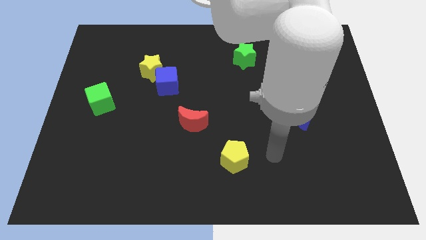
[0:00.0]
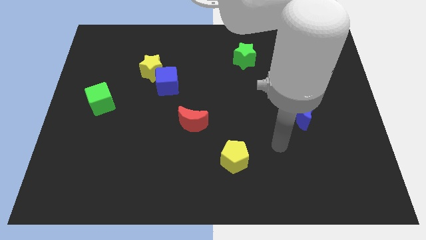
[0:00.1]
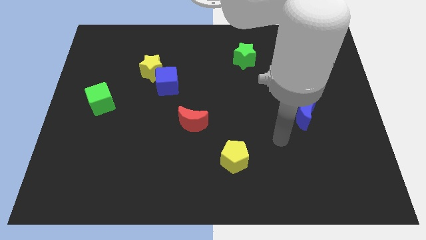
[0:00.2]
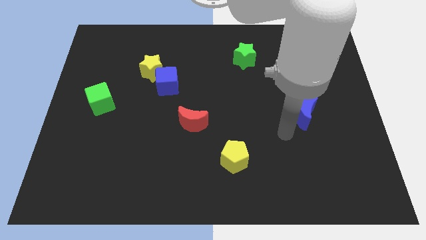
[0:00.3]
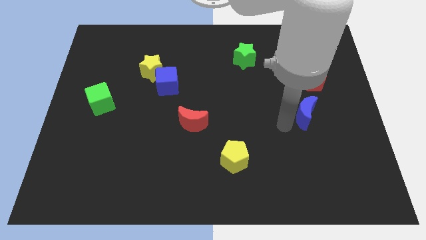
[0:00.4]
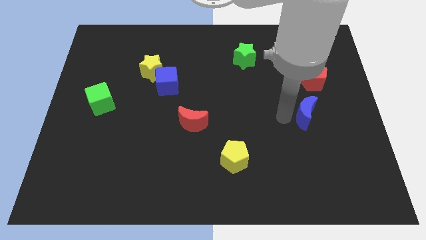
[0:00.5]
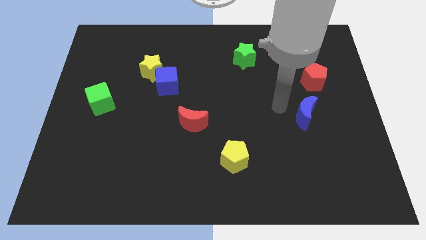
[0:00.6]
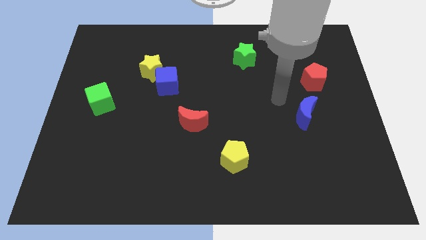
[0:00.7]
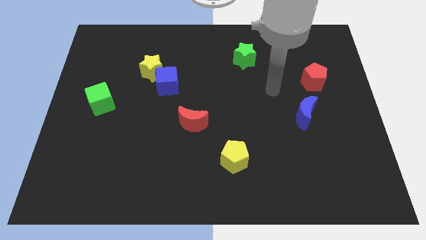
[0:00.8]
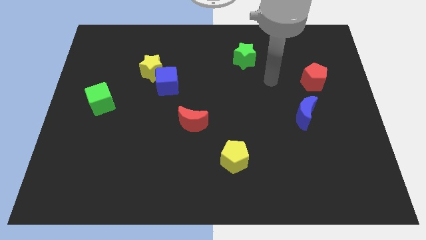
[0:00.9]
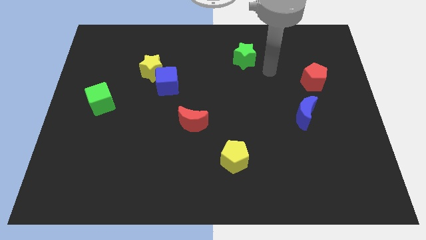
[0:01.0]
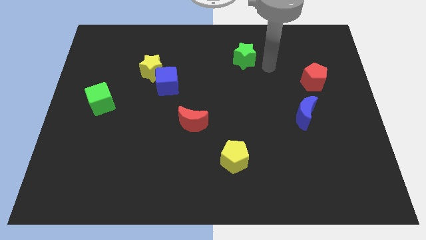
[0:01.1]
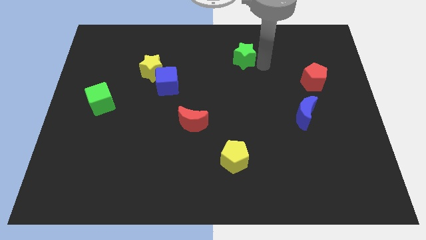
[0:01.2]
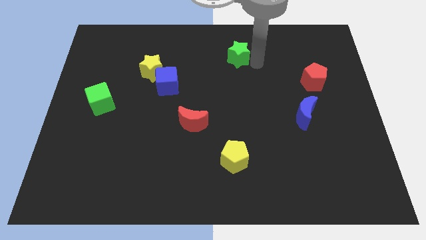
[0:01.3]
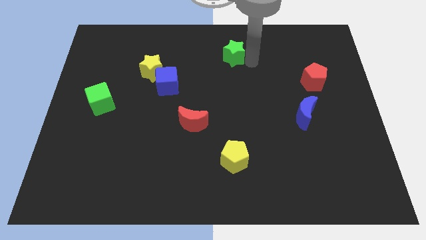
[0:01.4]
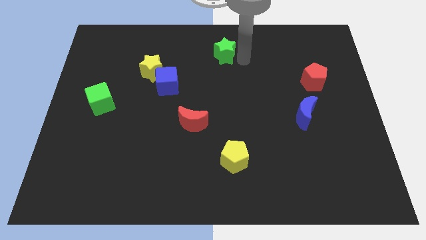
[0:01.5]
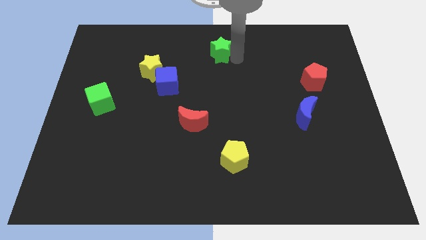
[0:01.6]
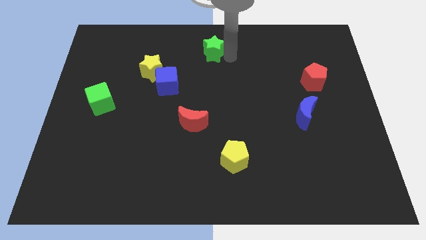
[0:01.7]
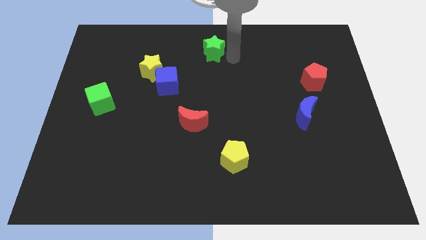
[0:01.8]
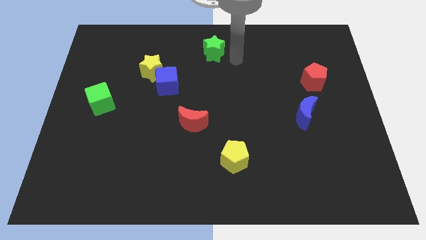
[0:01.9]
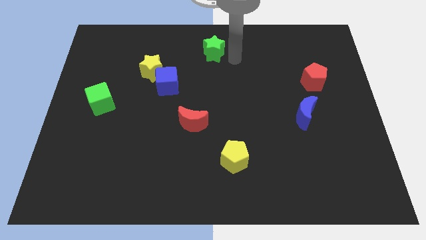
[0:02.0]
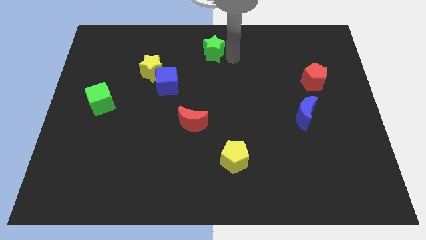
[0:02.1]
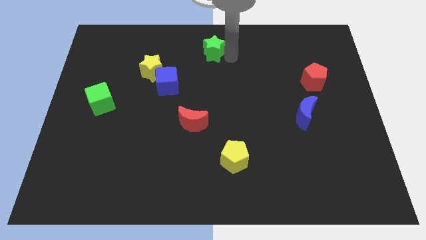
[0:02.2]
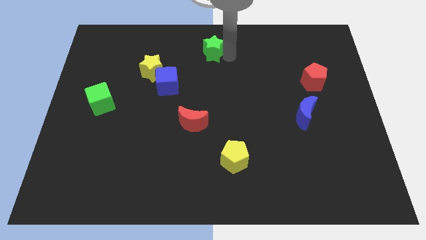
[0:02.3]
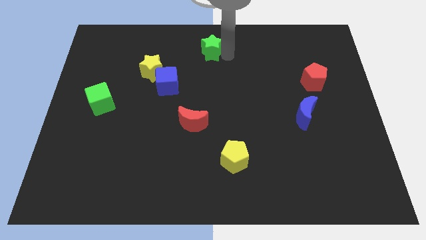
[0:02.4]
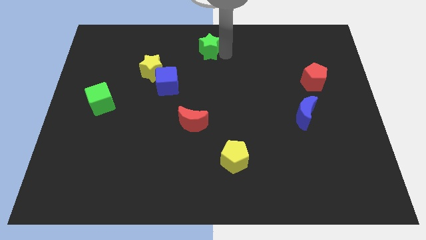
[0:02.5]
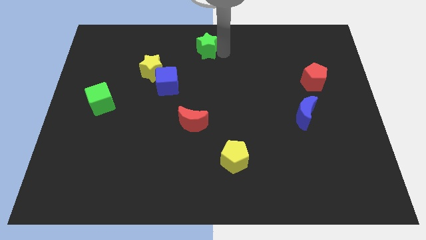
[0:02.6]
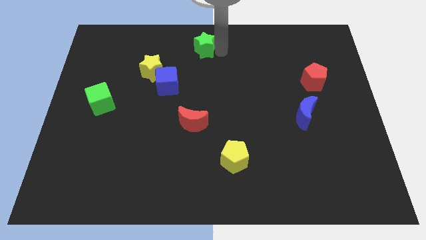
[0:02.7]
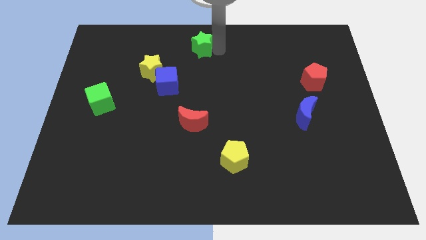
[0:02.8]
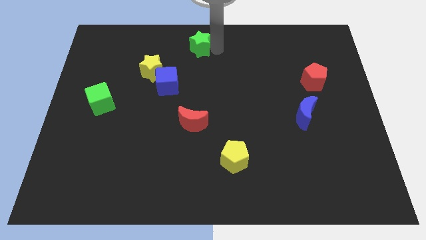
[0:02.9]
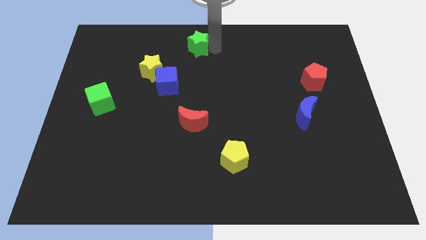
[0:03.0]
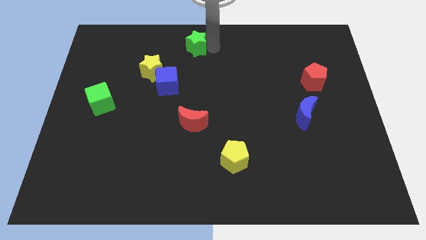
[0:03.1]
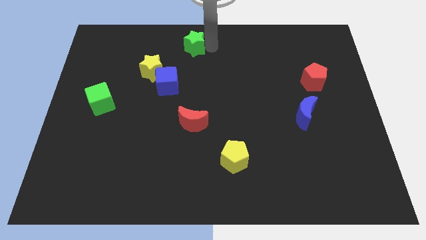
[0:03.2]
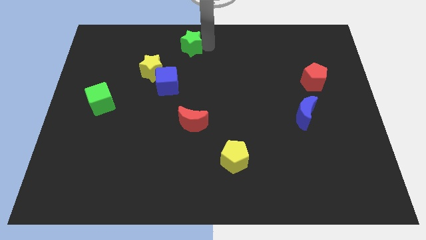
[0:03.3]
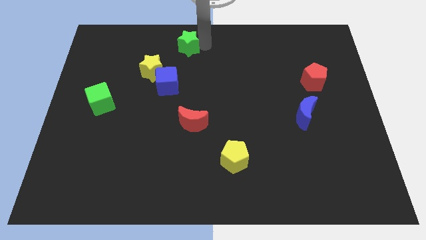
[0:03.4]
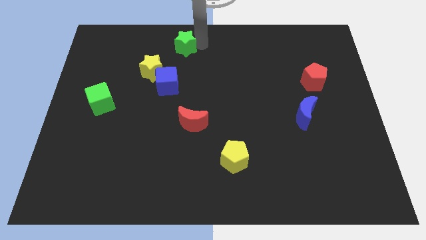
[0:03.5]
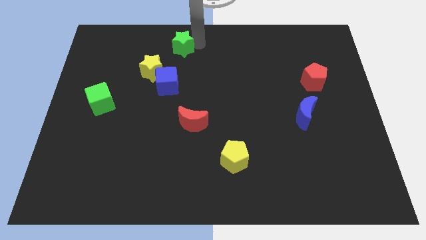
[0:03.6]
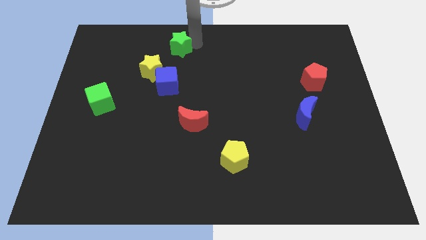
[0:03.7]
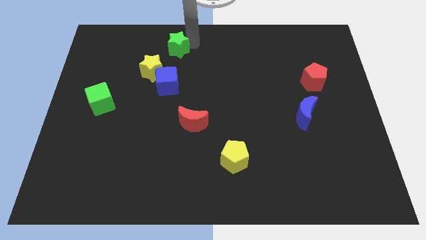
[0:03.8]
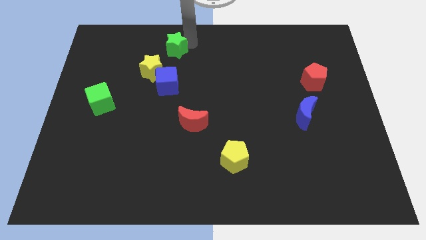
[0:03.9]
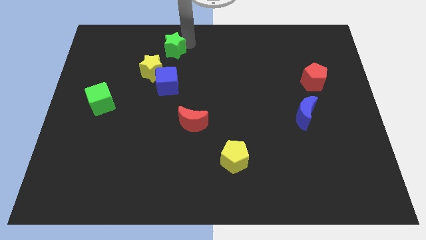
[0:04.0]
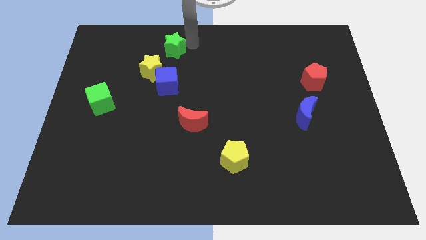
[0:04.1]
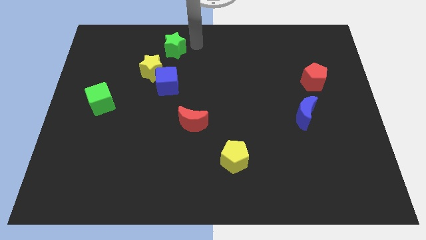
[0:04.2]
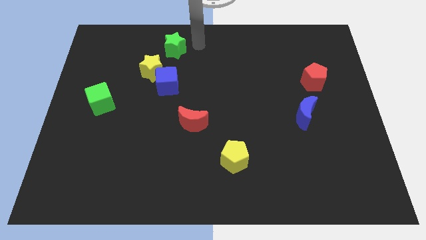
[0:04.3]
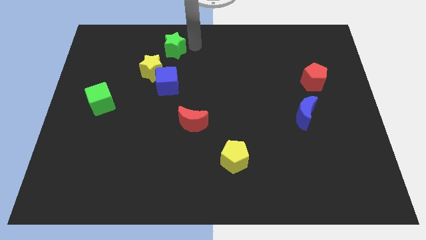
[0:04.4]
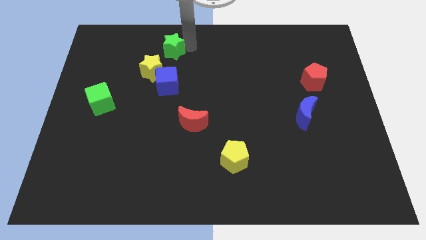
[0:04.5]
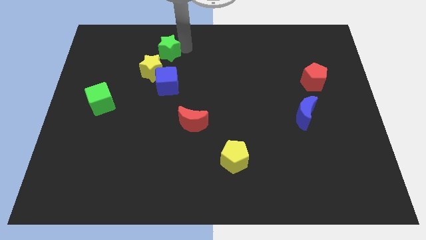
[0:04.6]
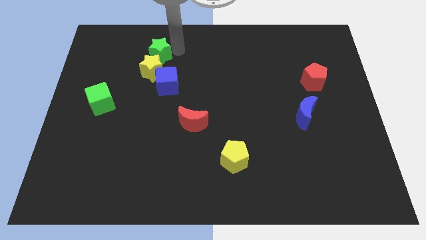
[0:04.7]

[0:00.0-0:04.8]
slide the green star to the left

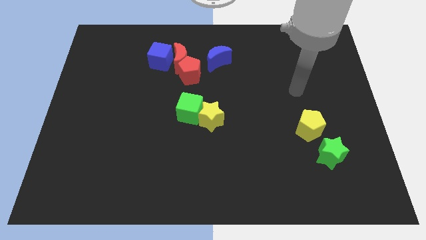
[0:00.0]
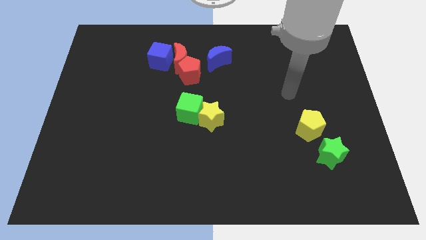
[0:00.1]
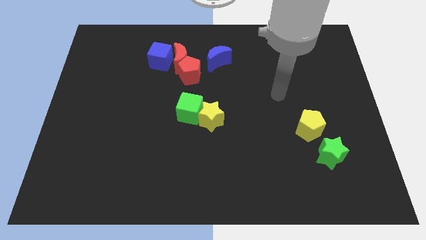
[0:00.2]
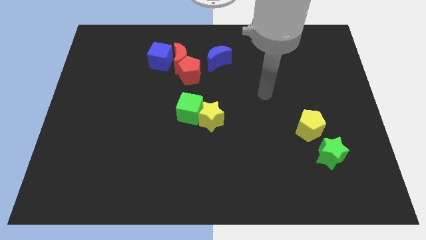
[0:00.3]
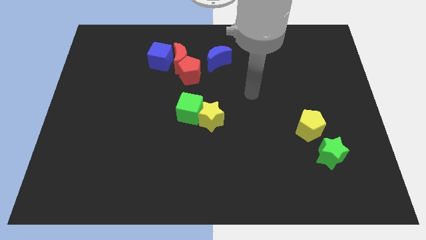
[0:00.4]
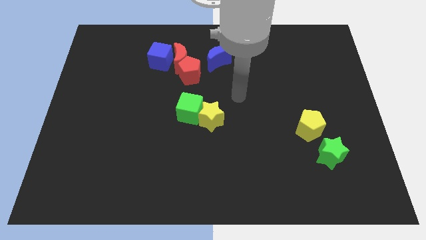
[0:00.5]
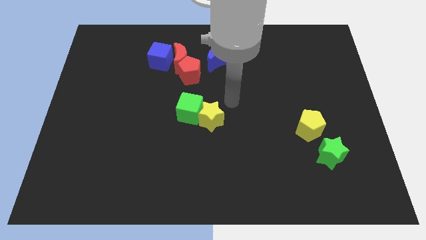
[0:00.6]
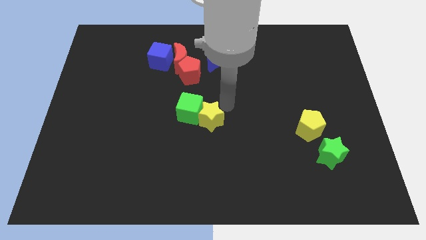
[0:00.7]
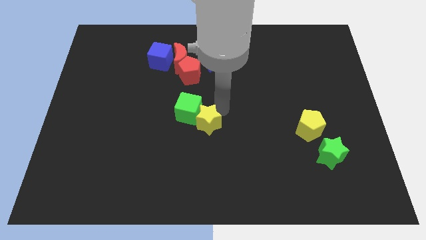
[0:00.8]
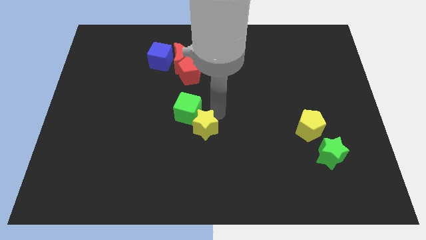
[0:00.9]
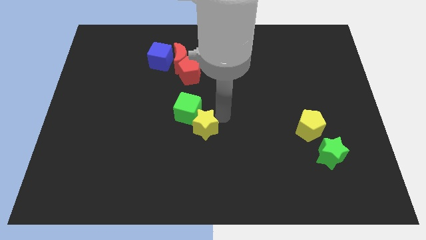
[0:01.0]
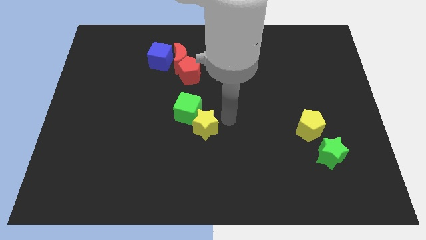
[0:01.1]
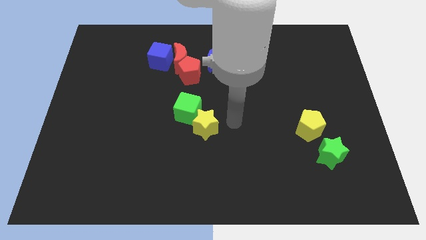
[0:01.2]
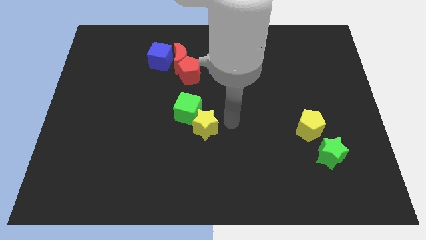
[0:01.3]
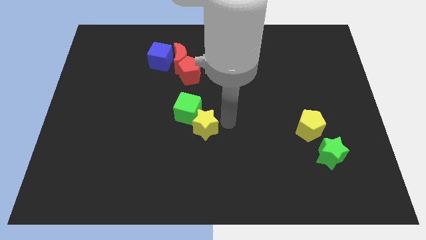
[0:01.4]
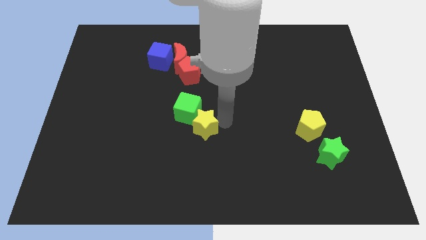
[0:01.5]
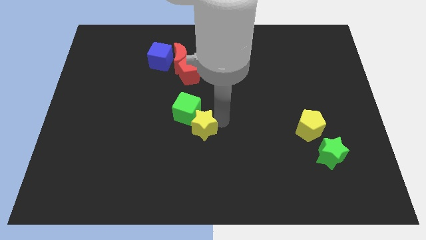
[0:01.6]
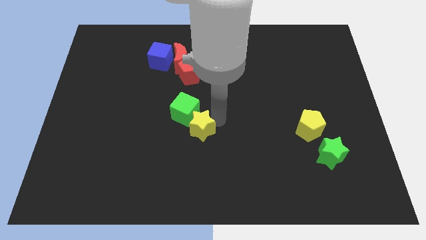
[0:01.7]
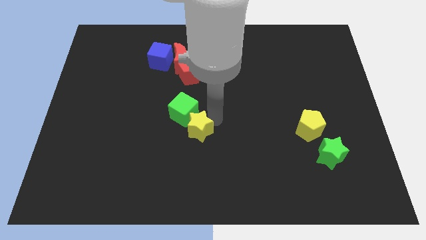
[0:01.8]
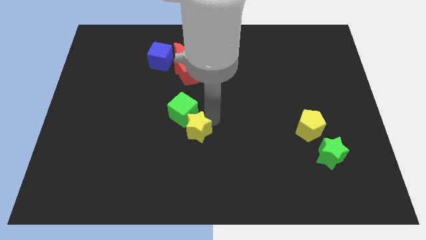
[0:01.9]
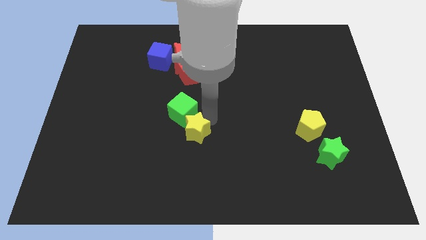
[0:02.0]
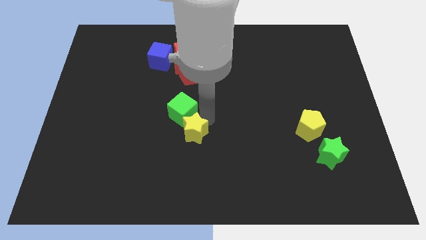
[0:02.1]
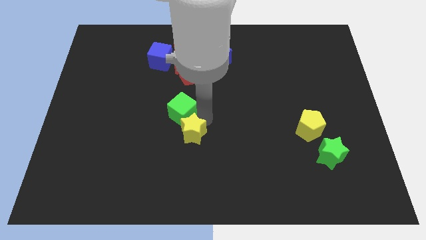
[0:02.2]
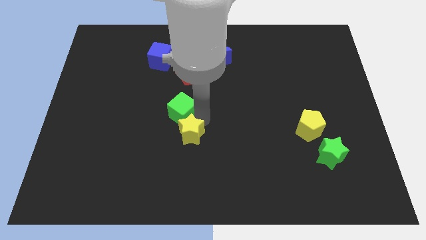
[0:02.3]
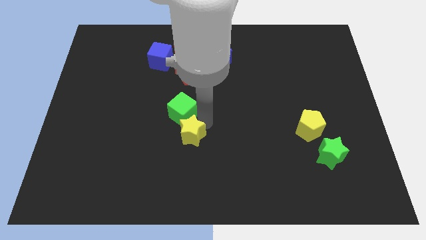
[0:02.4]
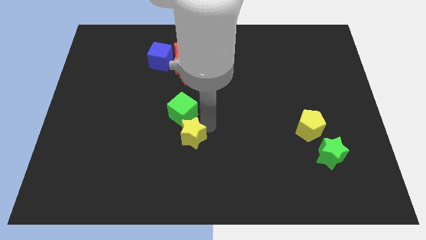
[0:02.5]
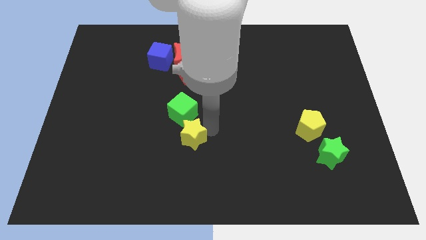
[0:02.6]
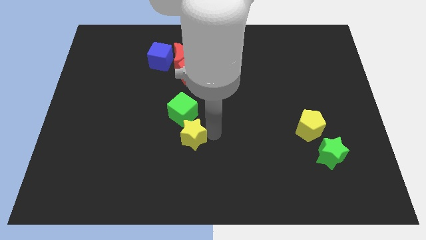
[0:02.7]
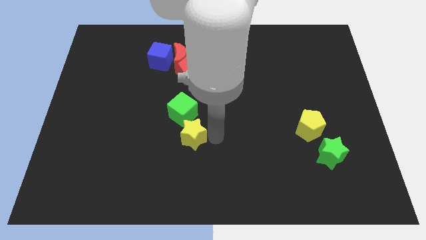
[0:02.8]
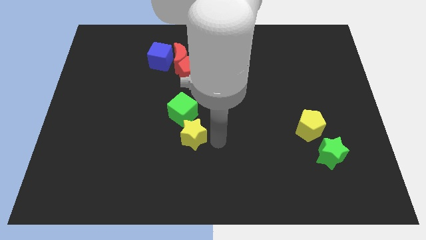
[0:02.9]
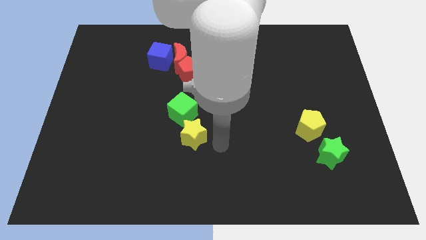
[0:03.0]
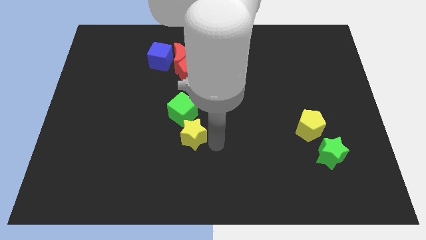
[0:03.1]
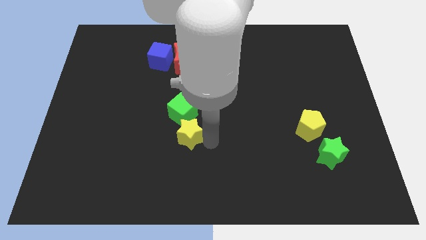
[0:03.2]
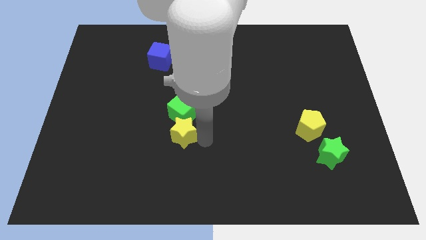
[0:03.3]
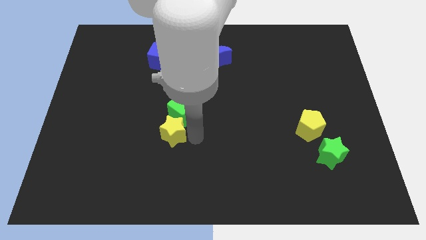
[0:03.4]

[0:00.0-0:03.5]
slightly push the yellow star left
